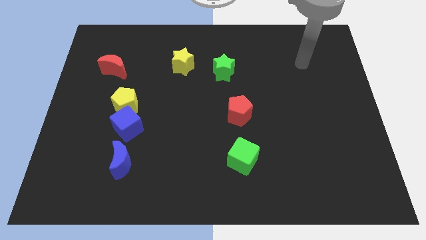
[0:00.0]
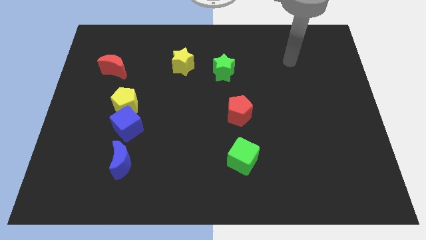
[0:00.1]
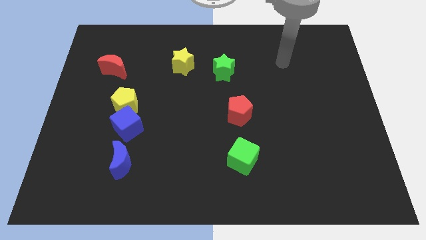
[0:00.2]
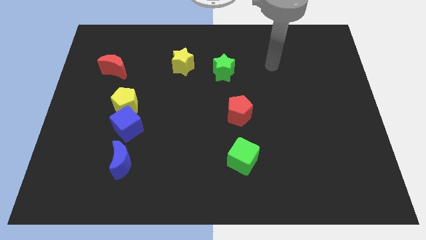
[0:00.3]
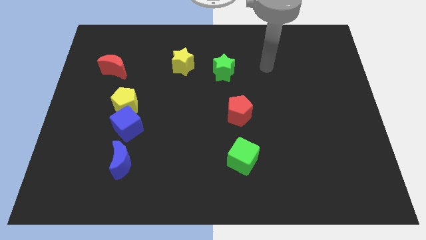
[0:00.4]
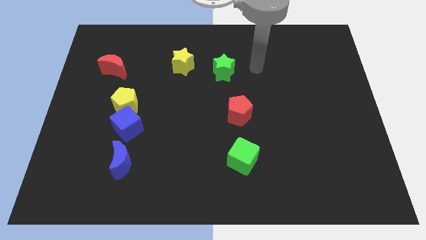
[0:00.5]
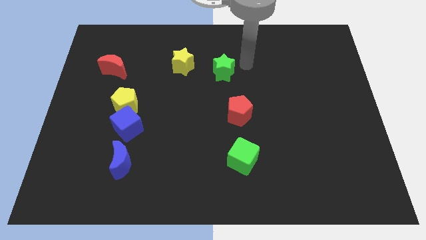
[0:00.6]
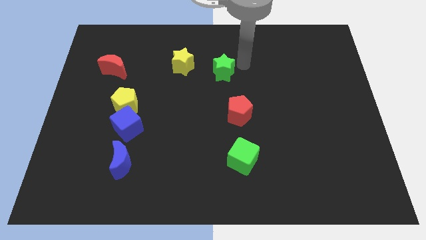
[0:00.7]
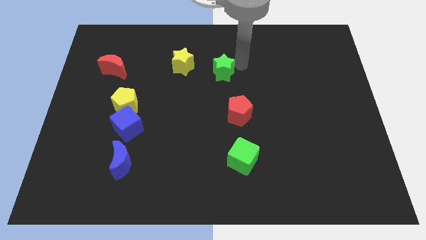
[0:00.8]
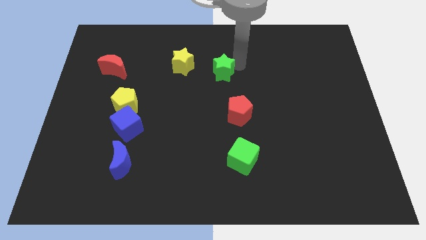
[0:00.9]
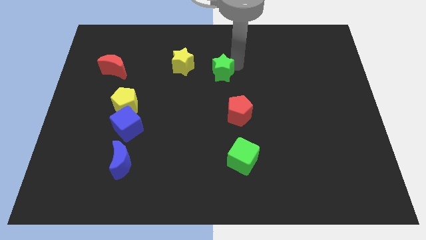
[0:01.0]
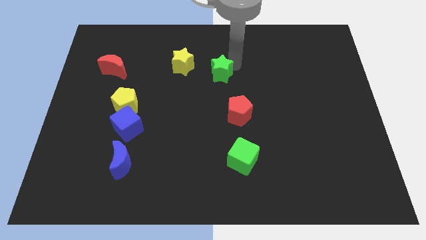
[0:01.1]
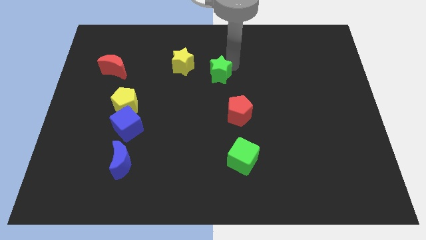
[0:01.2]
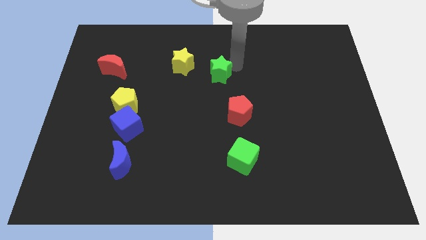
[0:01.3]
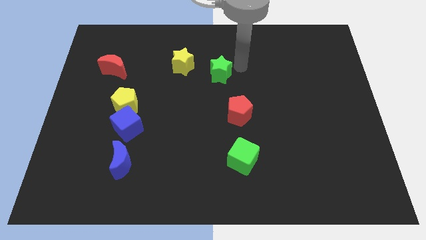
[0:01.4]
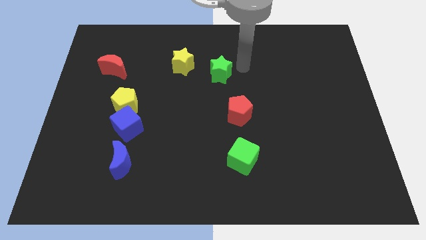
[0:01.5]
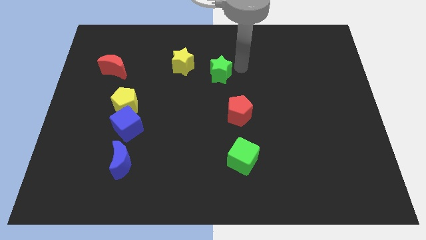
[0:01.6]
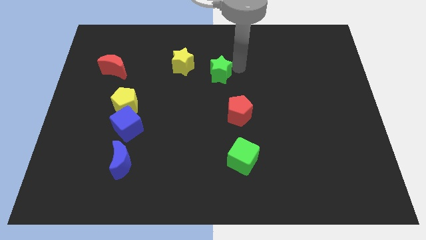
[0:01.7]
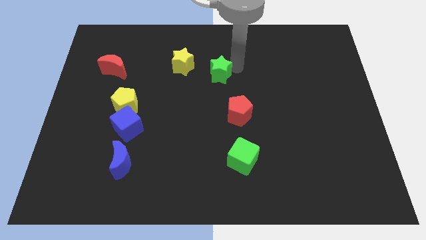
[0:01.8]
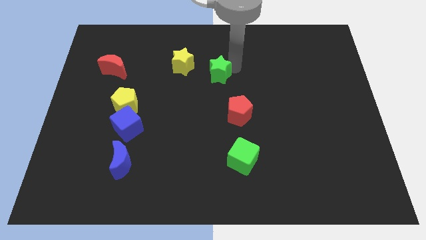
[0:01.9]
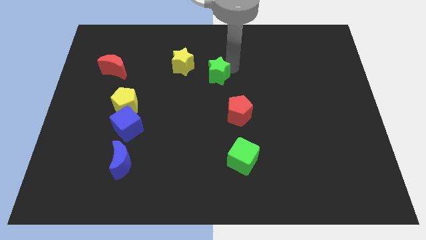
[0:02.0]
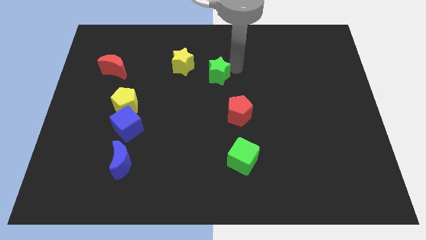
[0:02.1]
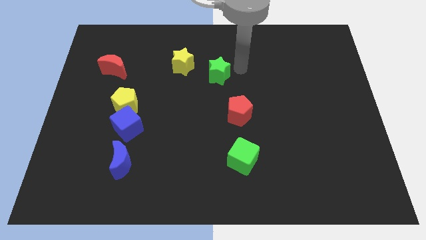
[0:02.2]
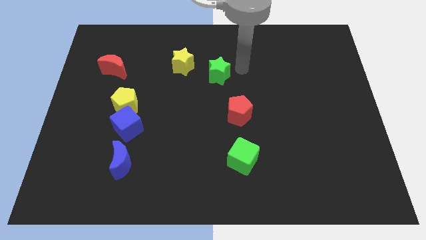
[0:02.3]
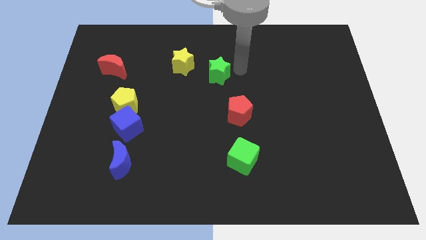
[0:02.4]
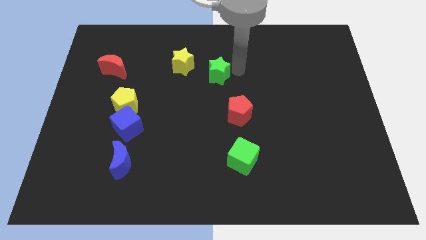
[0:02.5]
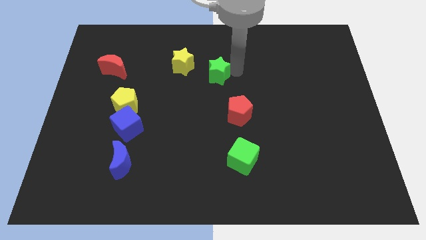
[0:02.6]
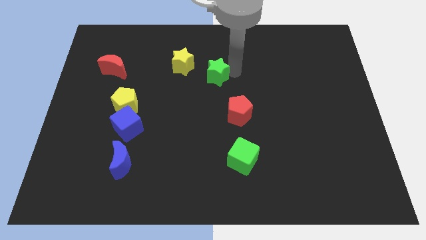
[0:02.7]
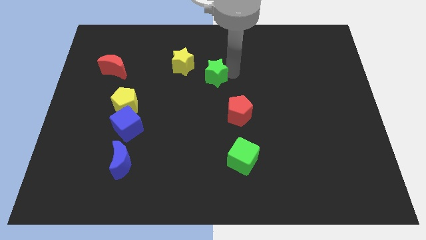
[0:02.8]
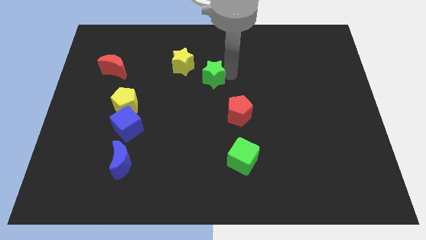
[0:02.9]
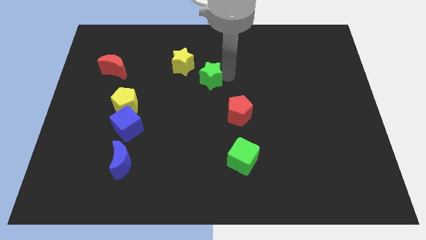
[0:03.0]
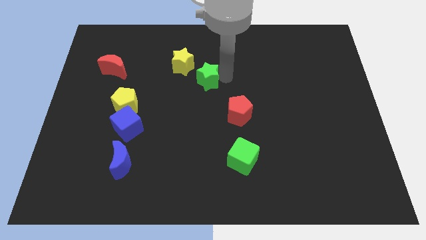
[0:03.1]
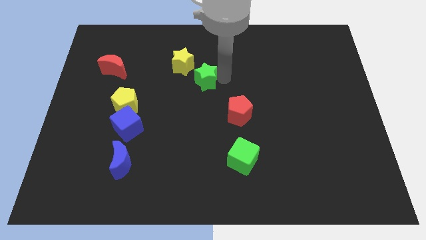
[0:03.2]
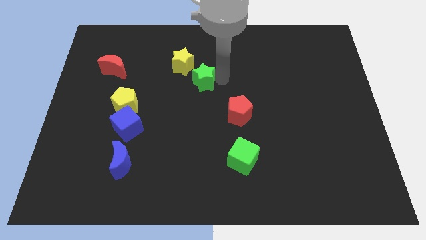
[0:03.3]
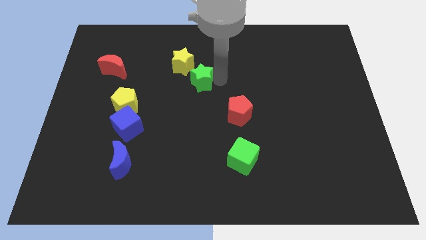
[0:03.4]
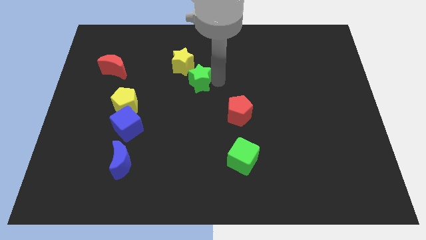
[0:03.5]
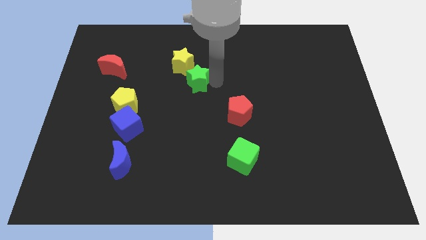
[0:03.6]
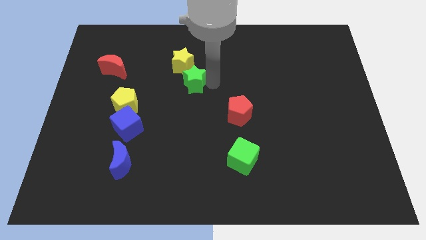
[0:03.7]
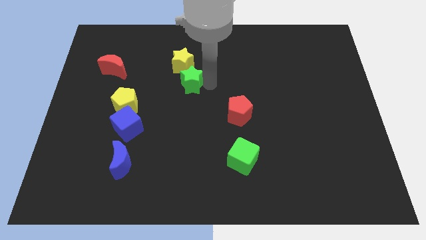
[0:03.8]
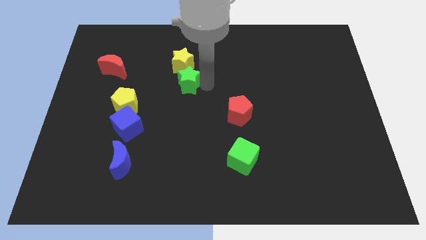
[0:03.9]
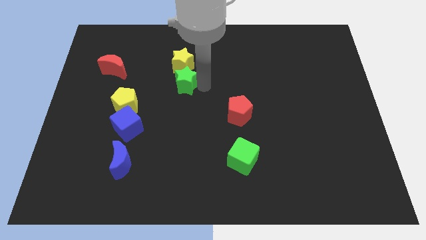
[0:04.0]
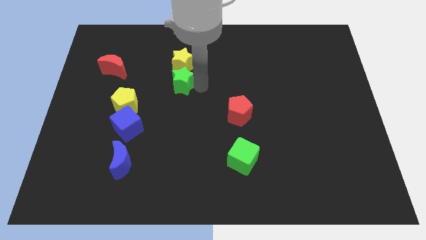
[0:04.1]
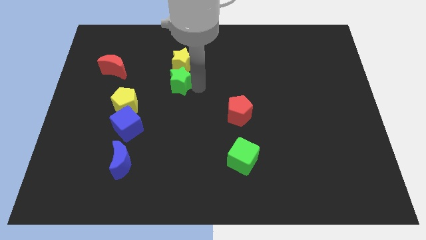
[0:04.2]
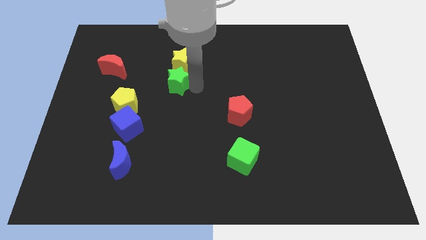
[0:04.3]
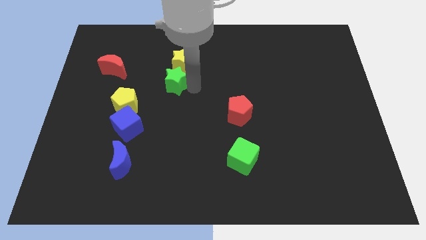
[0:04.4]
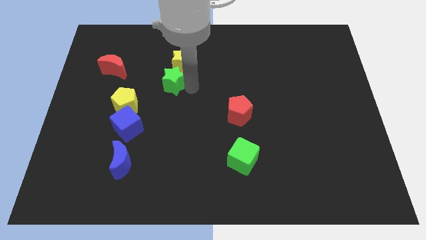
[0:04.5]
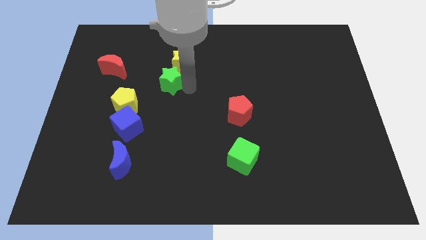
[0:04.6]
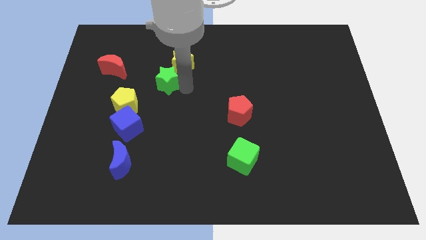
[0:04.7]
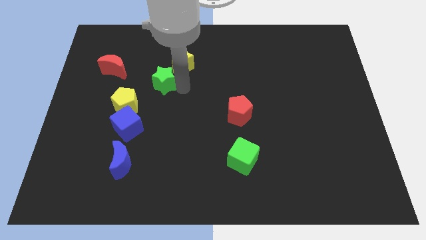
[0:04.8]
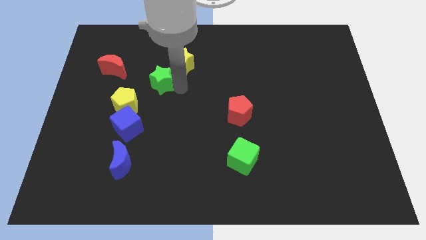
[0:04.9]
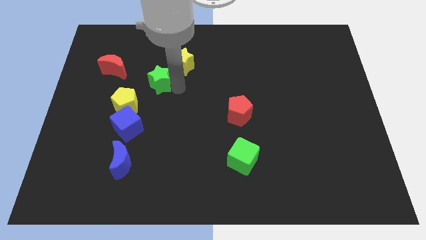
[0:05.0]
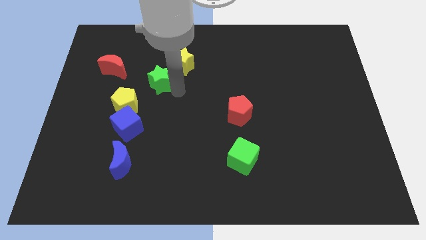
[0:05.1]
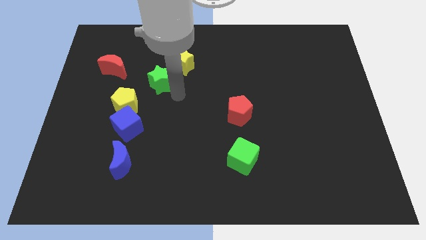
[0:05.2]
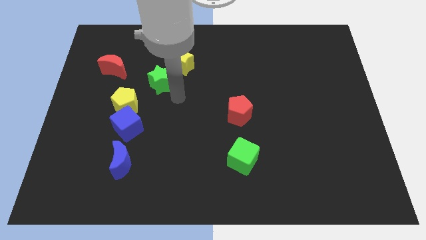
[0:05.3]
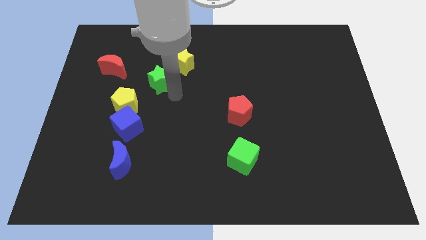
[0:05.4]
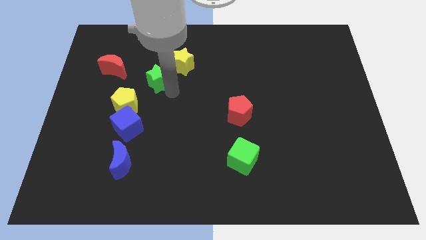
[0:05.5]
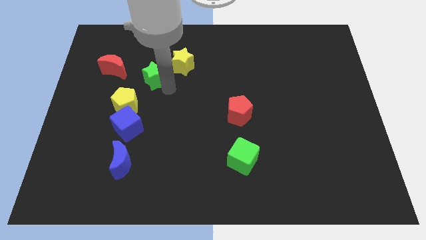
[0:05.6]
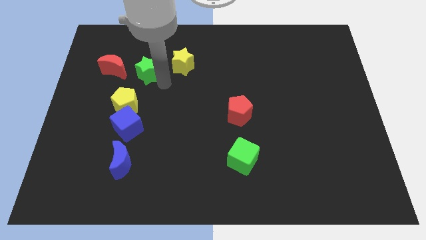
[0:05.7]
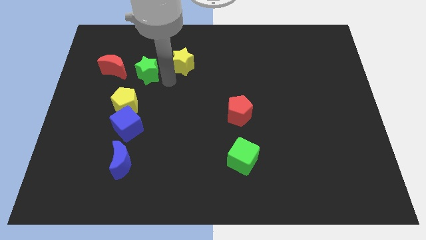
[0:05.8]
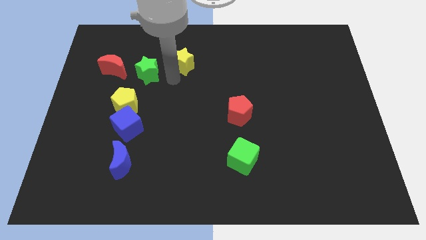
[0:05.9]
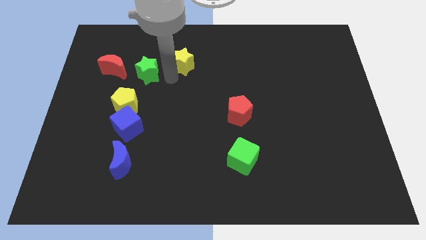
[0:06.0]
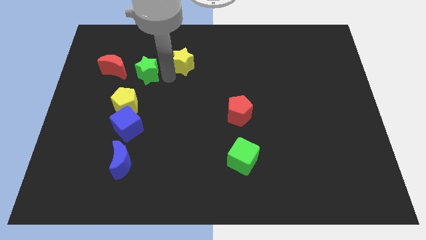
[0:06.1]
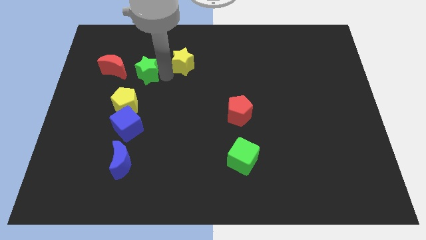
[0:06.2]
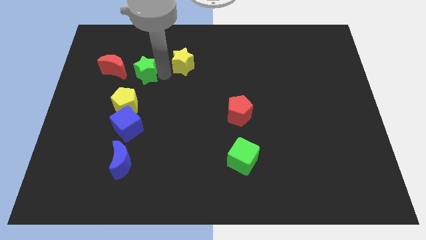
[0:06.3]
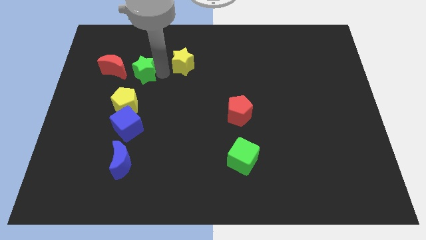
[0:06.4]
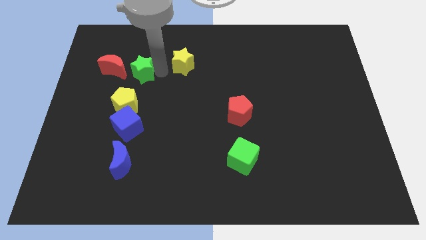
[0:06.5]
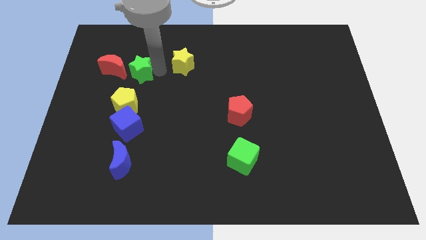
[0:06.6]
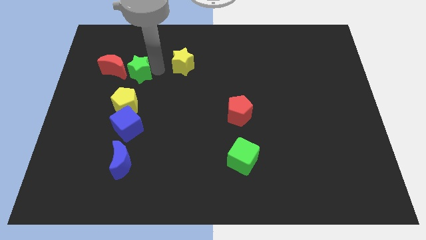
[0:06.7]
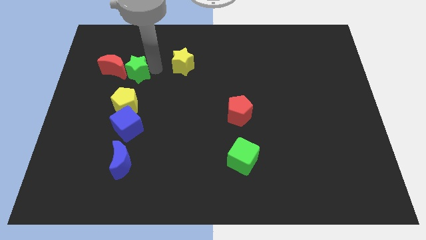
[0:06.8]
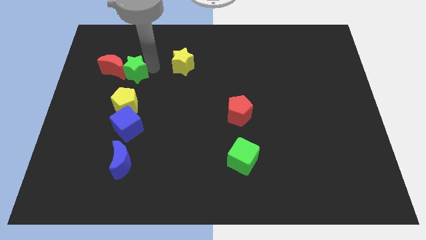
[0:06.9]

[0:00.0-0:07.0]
slide the green star to the red moon

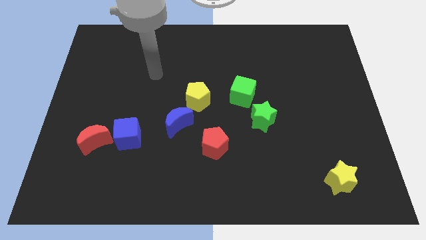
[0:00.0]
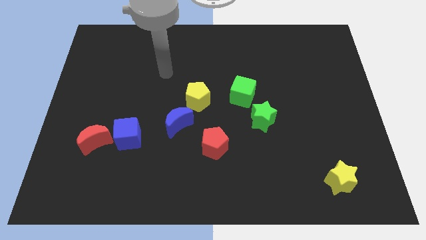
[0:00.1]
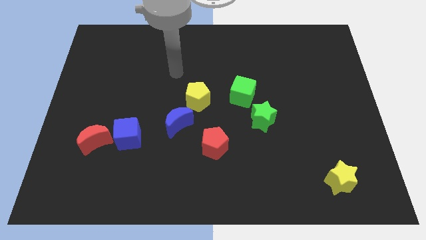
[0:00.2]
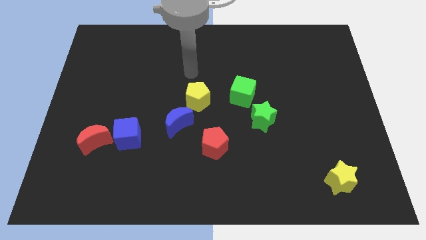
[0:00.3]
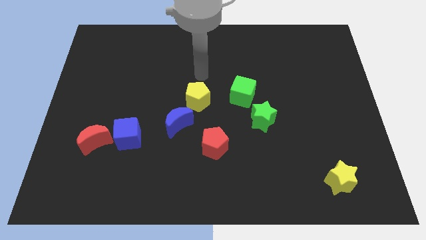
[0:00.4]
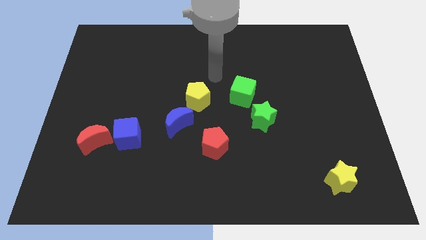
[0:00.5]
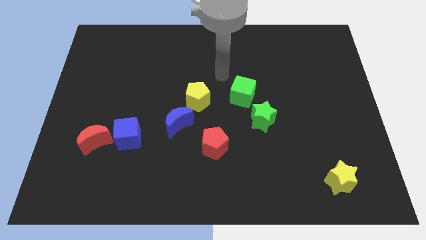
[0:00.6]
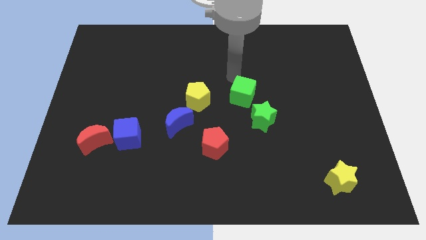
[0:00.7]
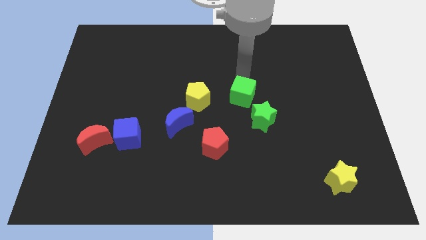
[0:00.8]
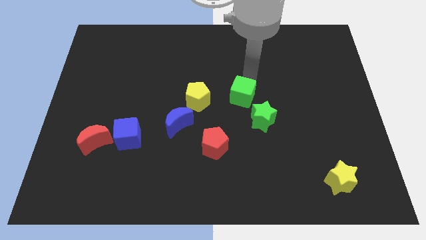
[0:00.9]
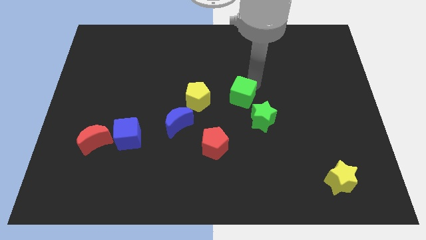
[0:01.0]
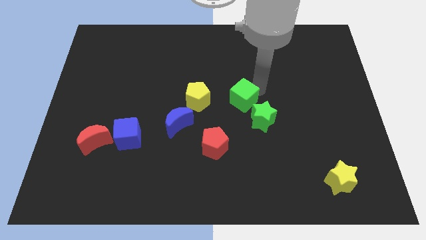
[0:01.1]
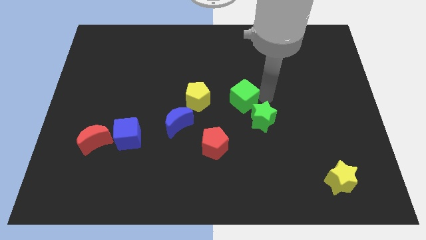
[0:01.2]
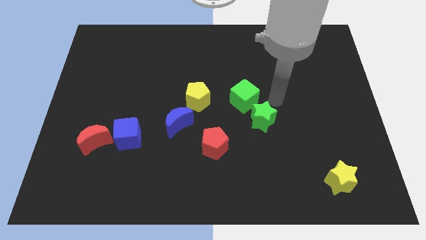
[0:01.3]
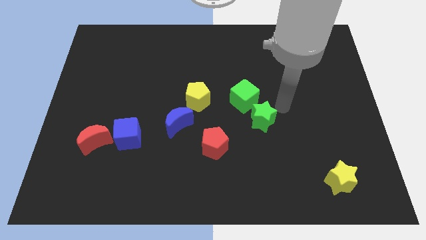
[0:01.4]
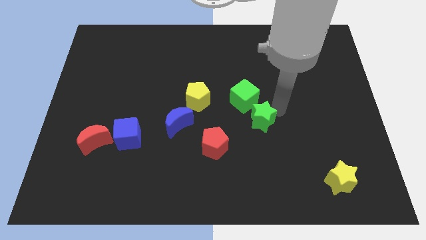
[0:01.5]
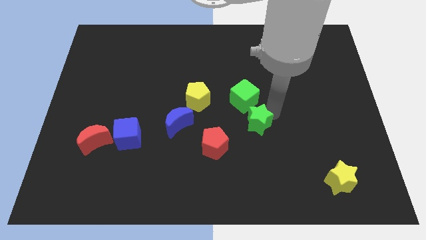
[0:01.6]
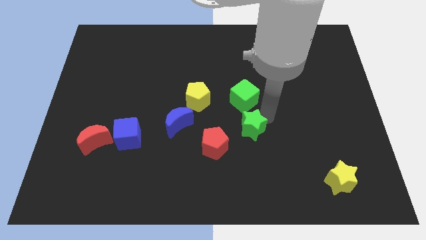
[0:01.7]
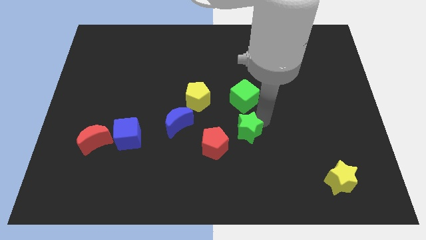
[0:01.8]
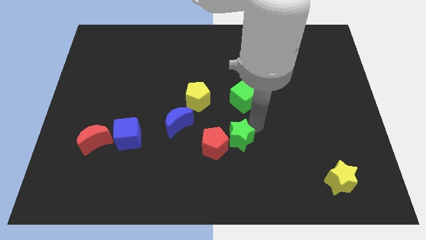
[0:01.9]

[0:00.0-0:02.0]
push the green star towards the red pentagon
